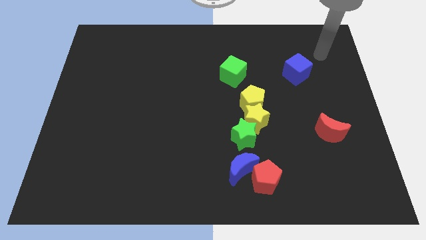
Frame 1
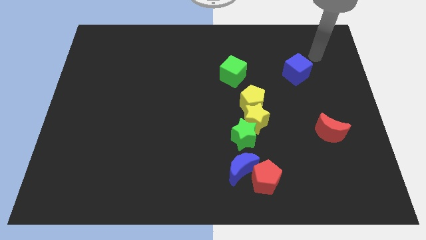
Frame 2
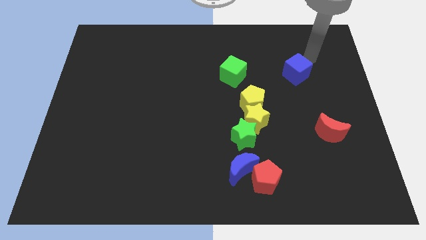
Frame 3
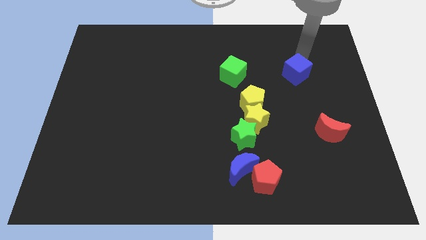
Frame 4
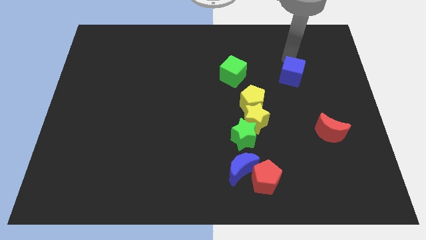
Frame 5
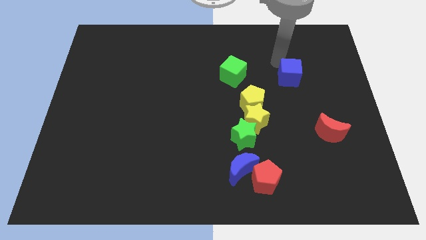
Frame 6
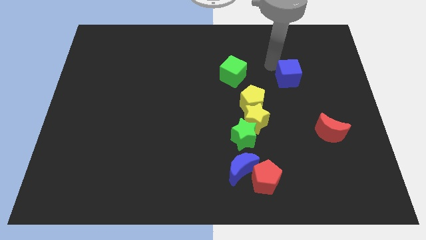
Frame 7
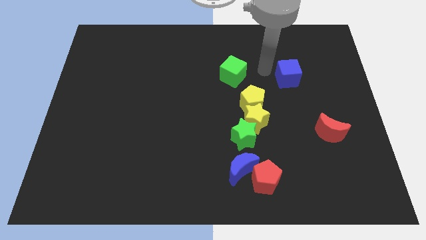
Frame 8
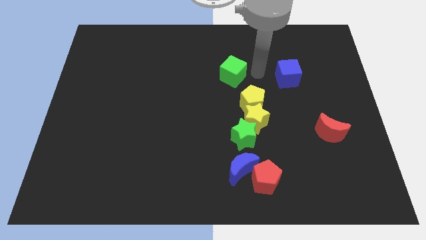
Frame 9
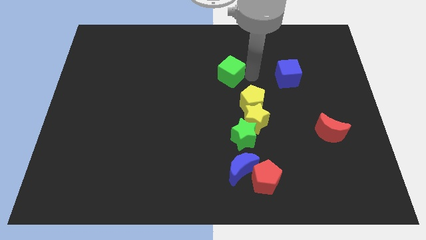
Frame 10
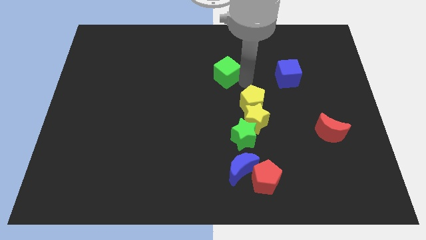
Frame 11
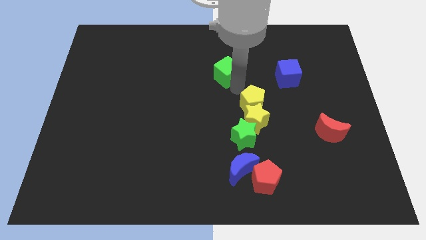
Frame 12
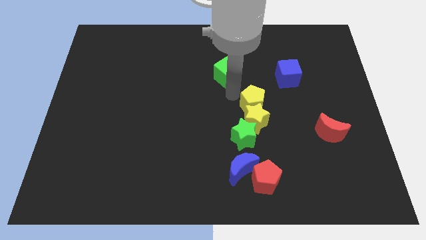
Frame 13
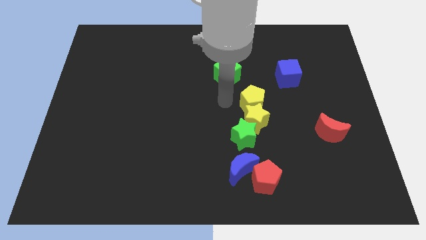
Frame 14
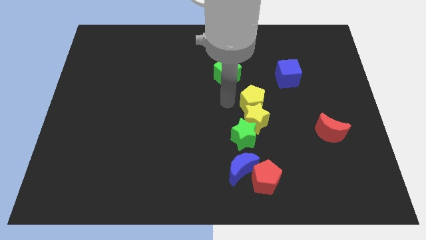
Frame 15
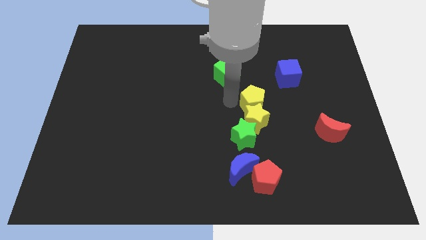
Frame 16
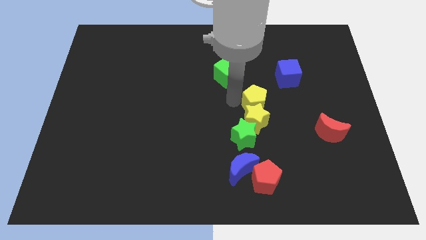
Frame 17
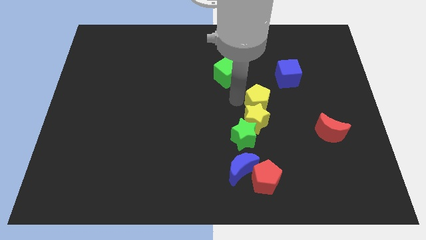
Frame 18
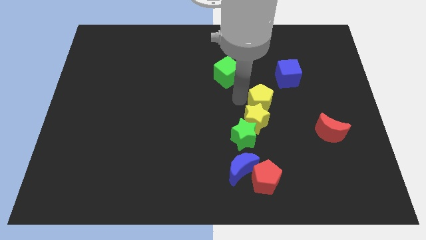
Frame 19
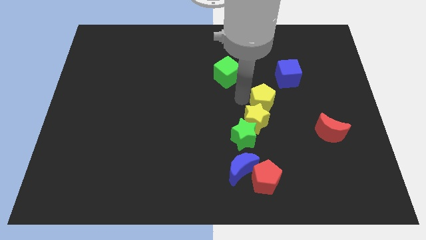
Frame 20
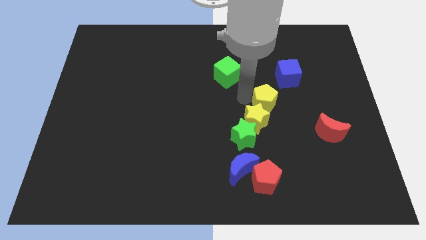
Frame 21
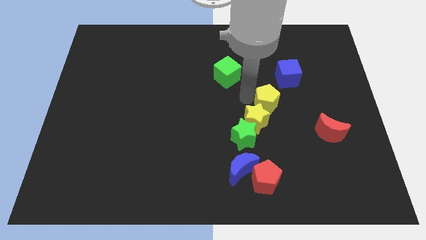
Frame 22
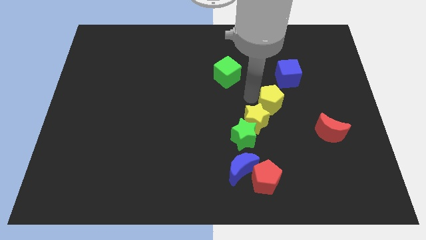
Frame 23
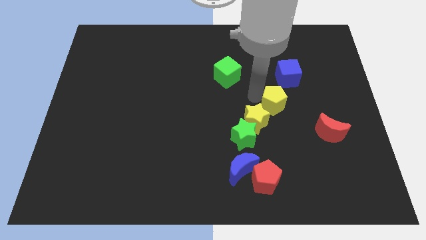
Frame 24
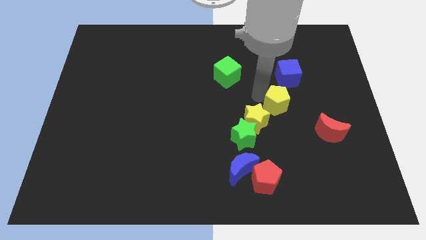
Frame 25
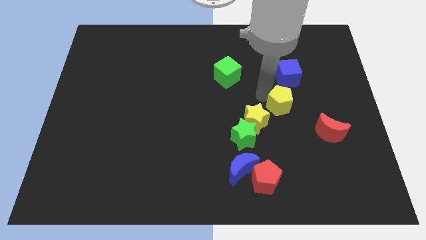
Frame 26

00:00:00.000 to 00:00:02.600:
slightly move the yellow pentagon right

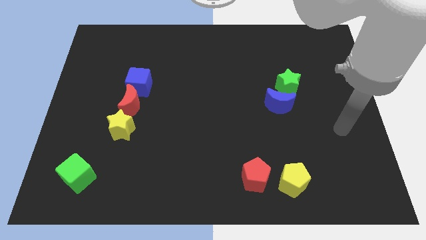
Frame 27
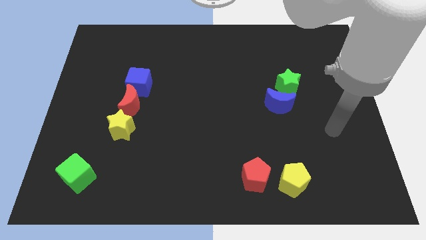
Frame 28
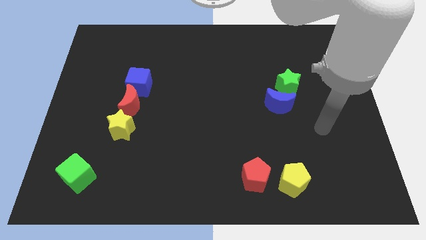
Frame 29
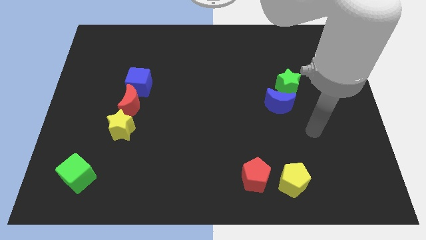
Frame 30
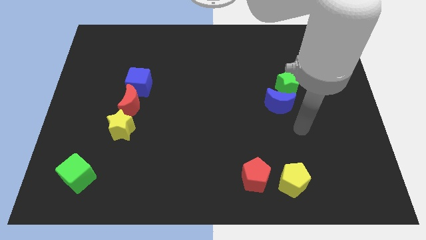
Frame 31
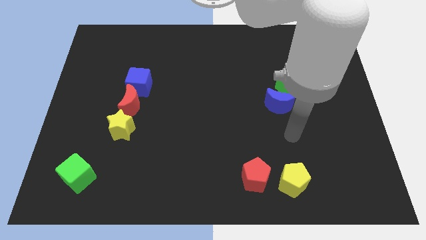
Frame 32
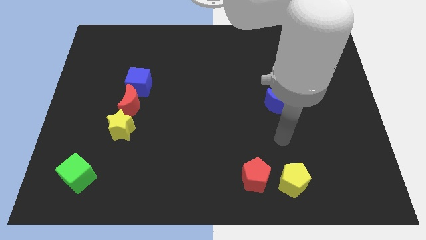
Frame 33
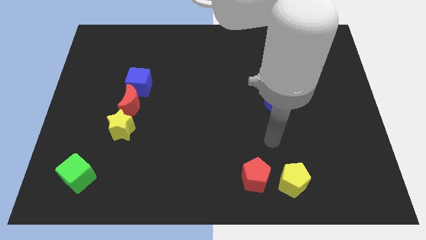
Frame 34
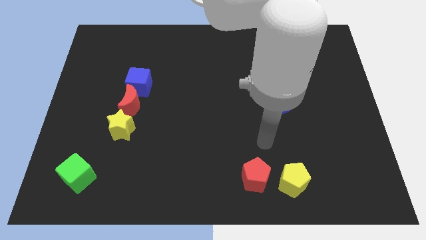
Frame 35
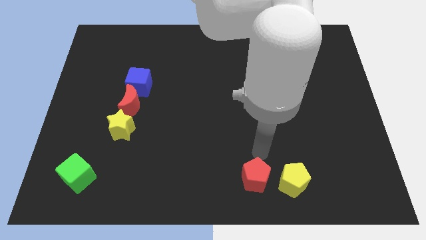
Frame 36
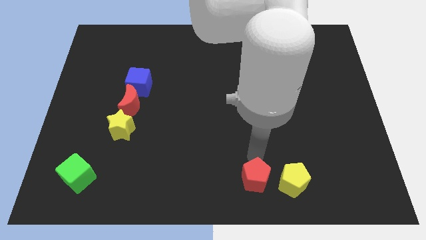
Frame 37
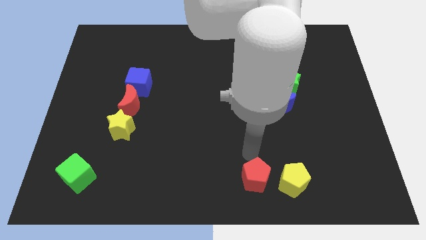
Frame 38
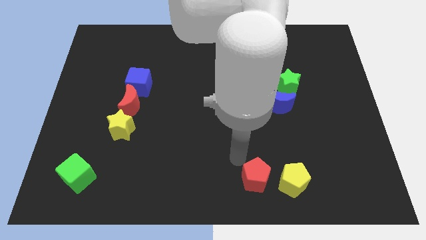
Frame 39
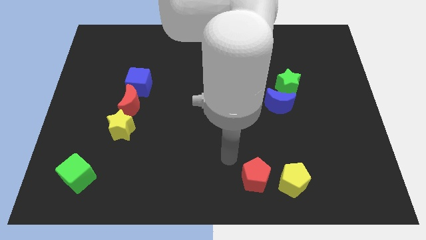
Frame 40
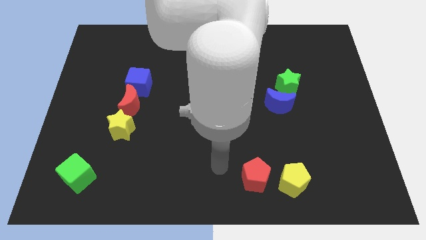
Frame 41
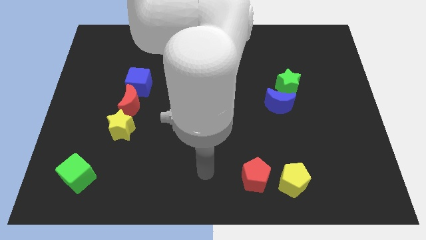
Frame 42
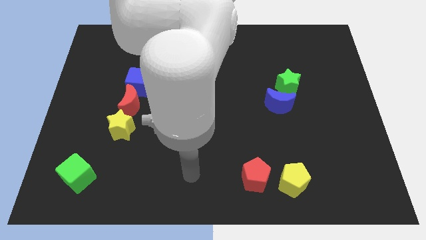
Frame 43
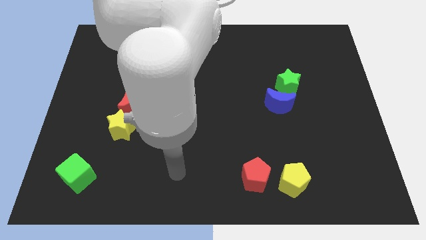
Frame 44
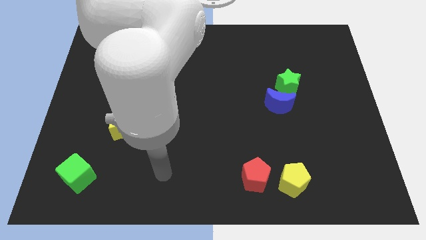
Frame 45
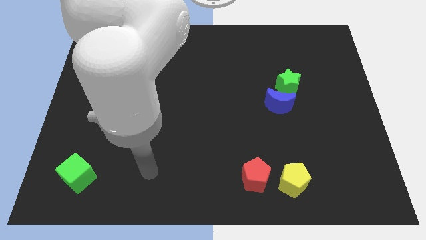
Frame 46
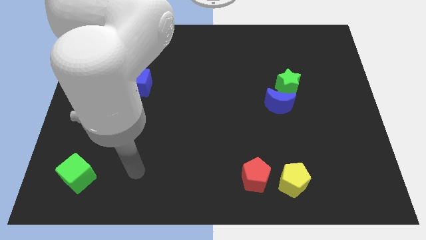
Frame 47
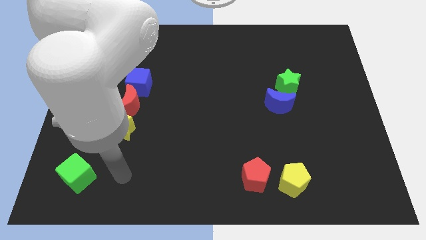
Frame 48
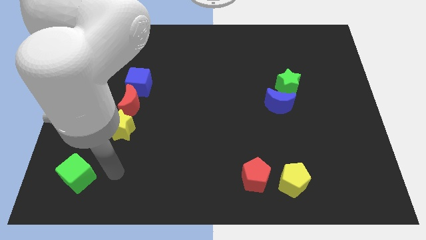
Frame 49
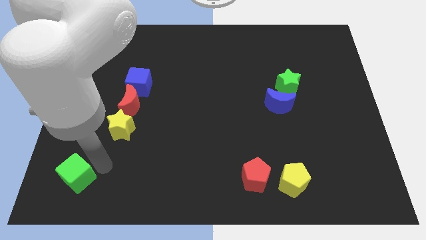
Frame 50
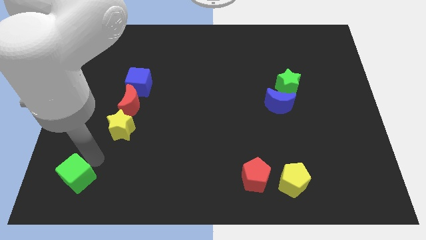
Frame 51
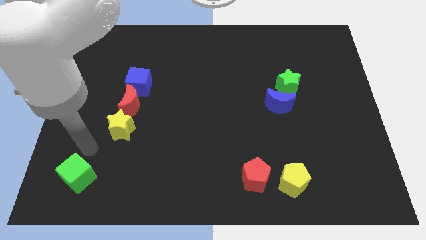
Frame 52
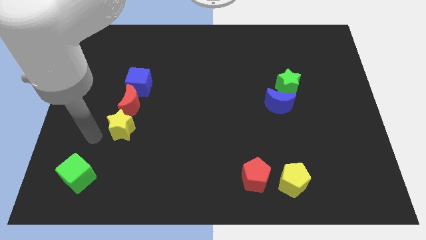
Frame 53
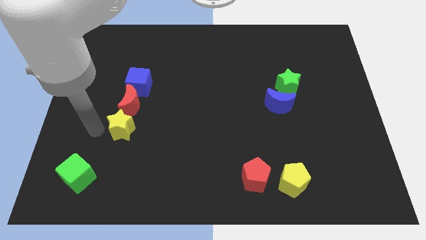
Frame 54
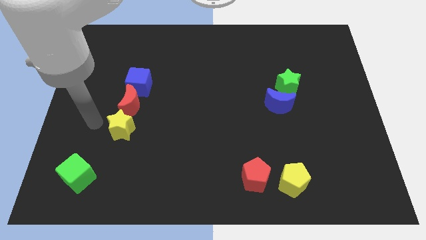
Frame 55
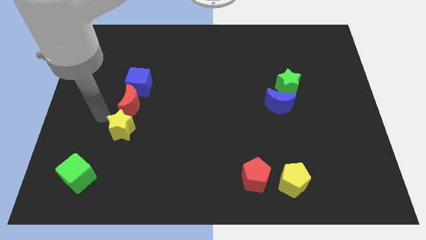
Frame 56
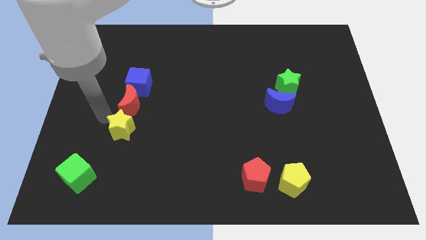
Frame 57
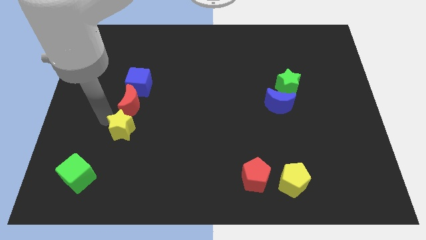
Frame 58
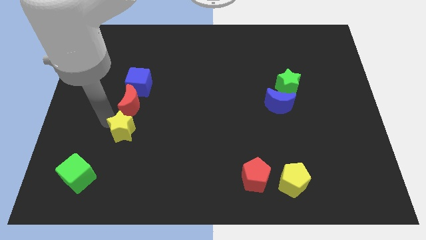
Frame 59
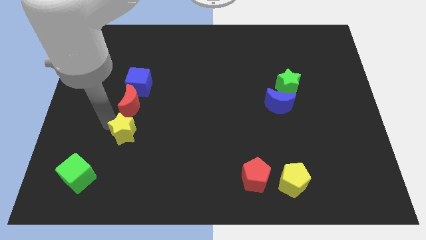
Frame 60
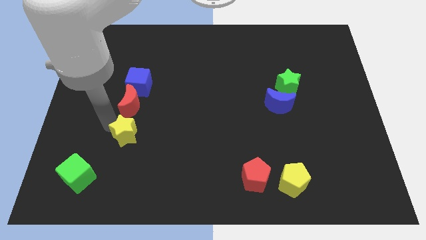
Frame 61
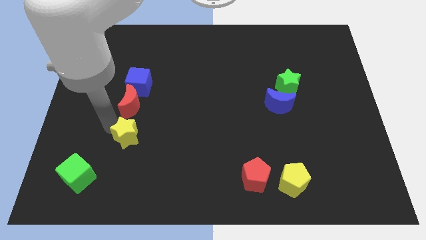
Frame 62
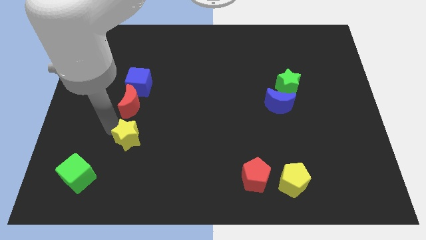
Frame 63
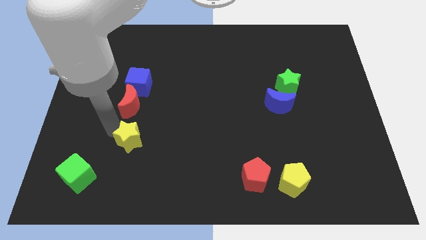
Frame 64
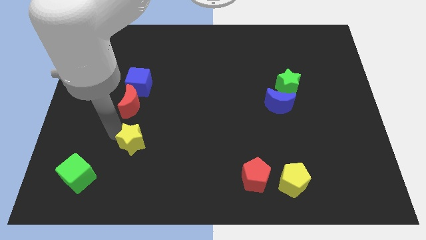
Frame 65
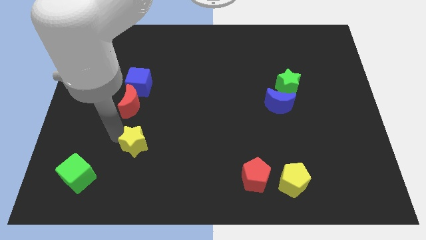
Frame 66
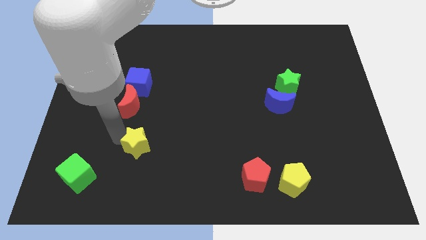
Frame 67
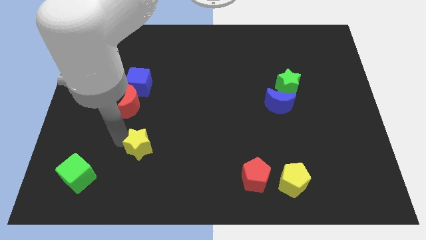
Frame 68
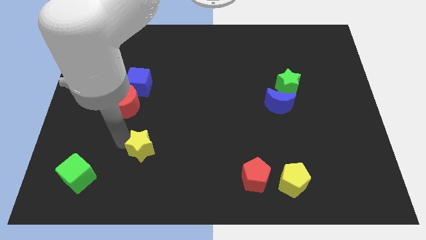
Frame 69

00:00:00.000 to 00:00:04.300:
push the yellow star a bit down and then right

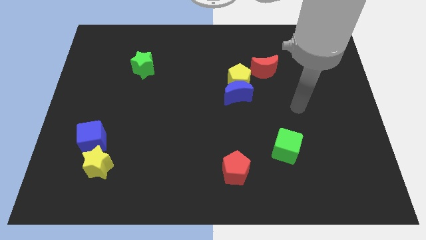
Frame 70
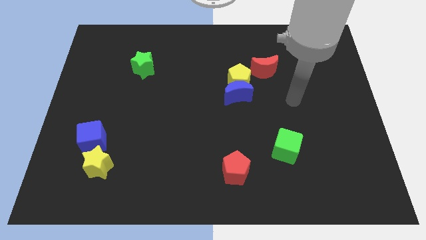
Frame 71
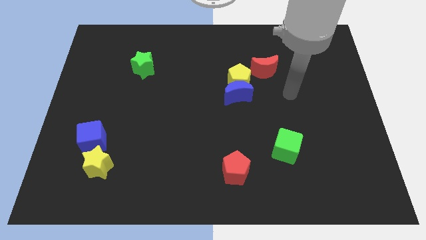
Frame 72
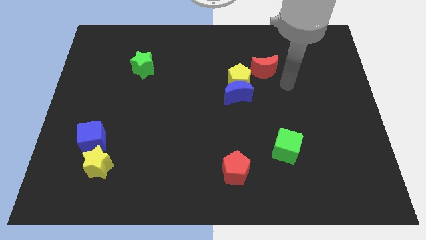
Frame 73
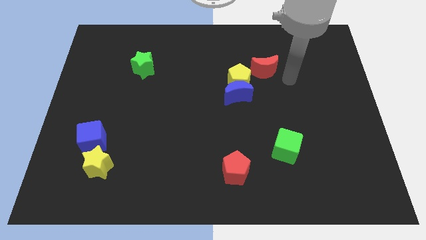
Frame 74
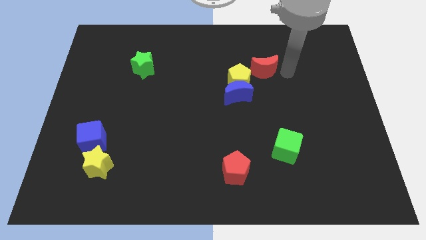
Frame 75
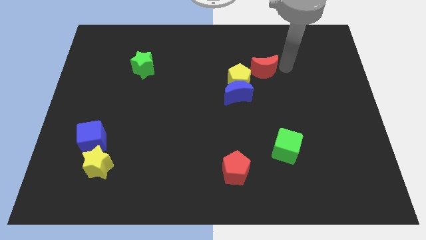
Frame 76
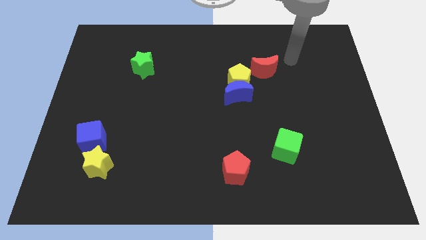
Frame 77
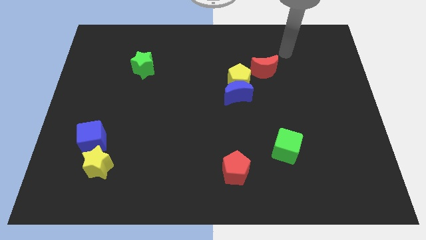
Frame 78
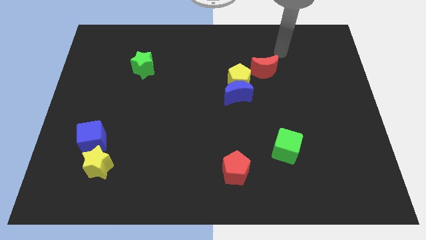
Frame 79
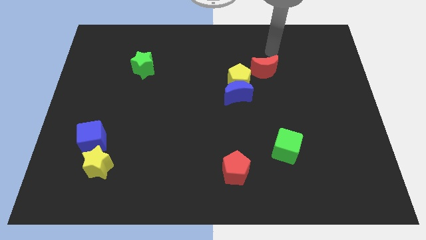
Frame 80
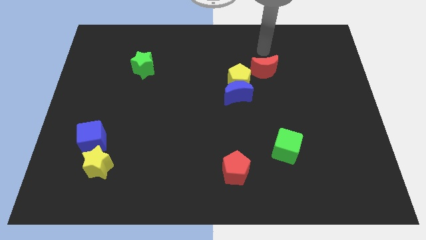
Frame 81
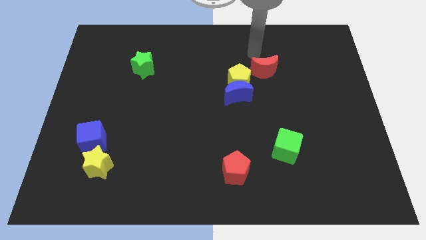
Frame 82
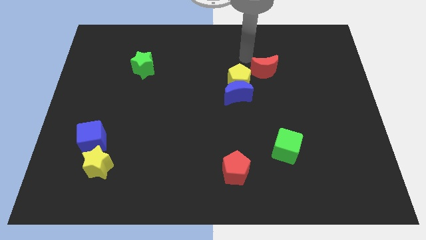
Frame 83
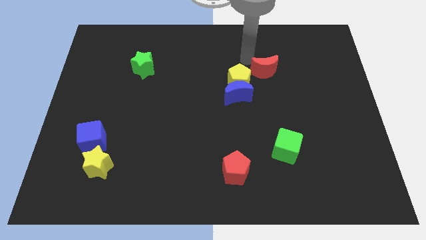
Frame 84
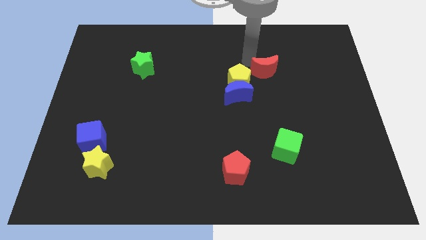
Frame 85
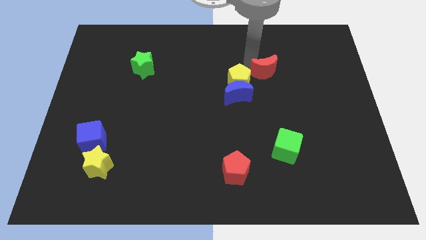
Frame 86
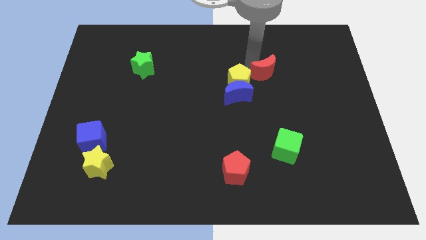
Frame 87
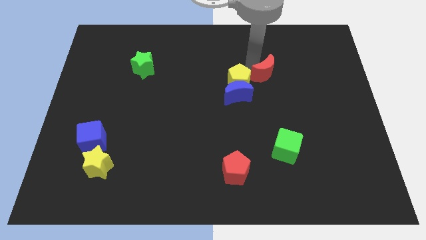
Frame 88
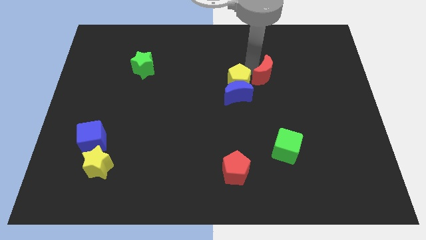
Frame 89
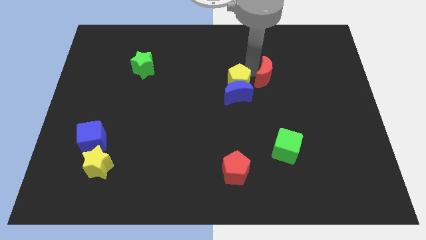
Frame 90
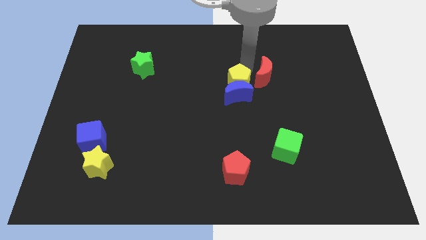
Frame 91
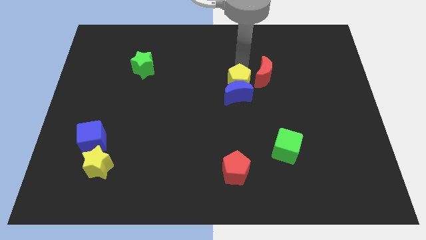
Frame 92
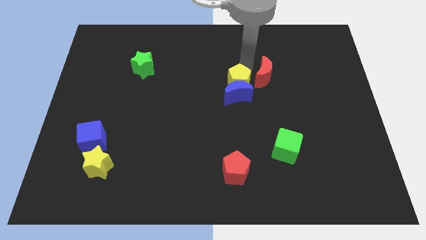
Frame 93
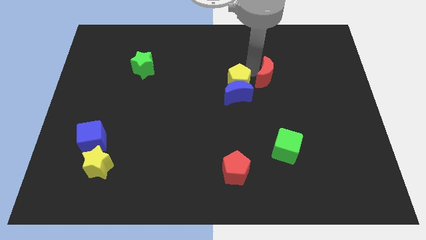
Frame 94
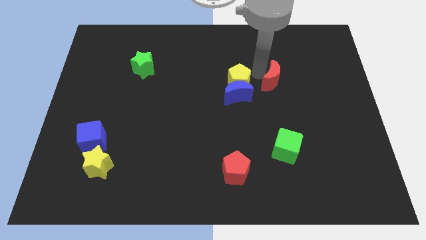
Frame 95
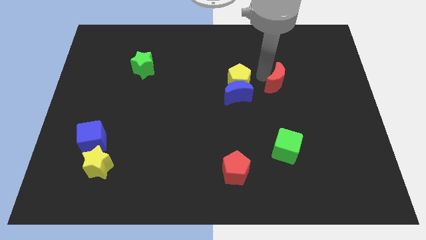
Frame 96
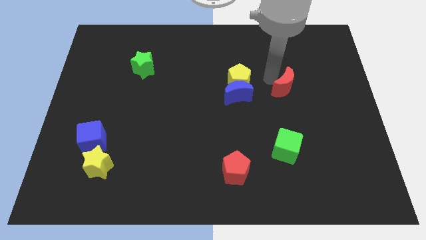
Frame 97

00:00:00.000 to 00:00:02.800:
slightly push the red moon diagonally downwards and right
